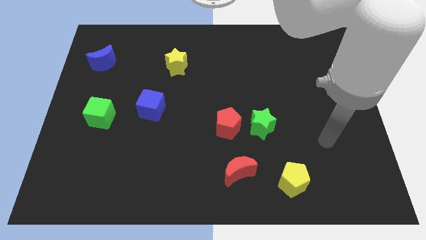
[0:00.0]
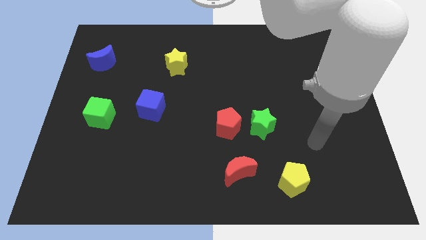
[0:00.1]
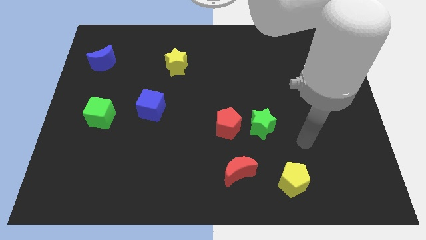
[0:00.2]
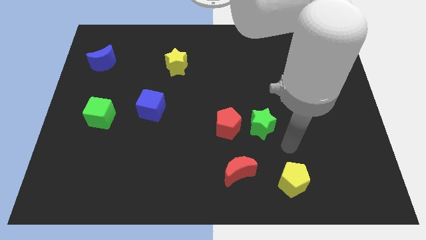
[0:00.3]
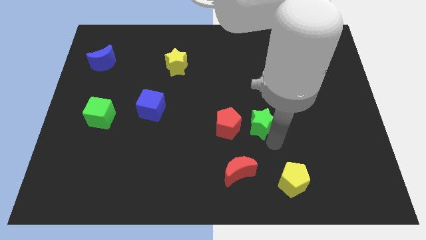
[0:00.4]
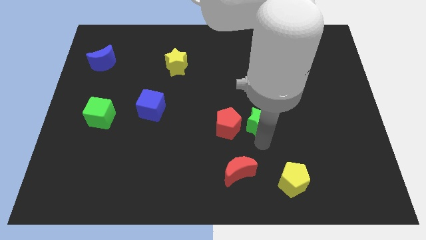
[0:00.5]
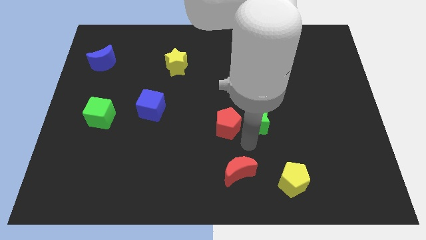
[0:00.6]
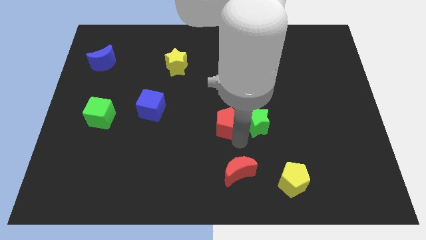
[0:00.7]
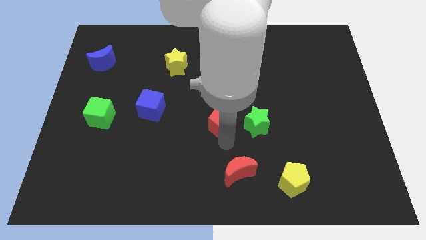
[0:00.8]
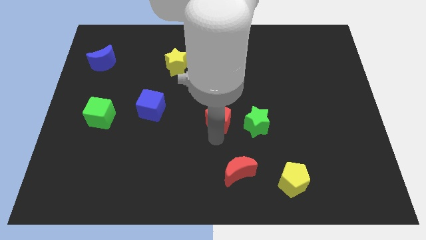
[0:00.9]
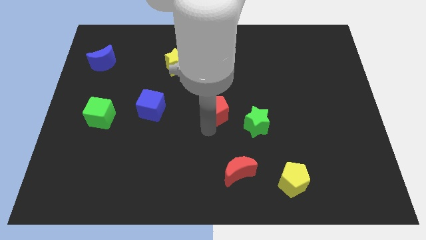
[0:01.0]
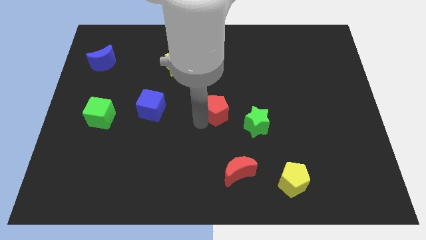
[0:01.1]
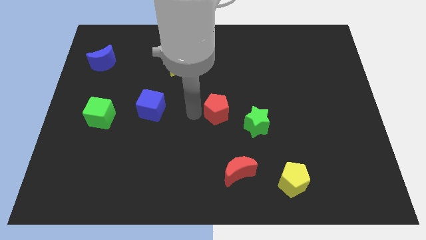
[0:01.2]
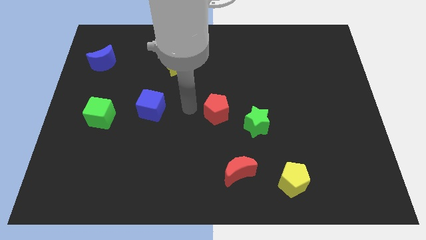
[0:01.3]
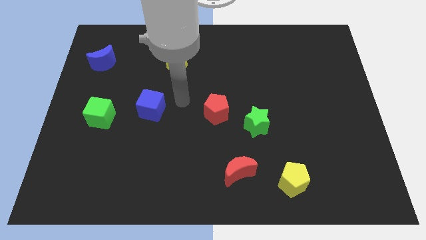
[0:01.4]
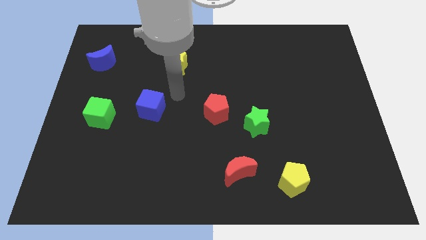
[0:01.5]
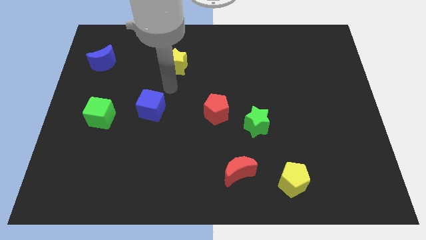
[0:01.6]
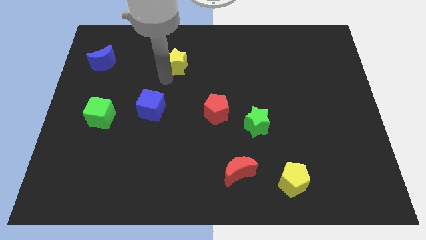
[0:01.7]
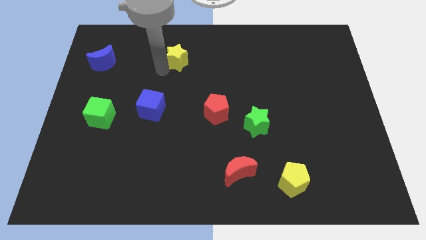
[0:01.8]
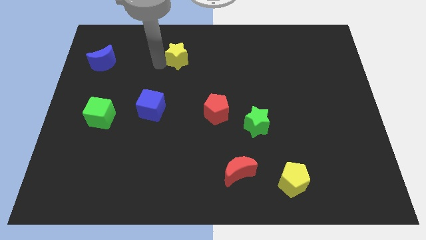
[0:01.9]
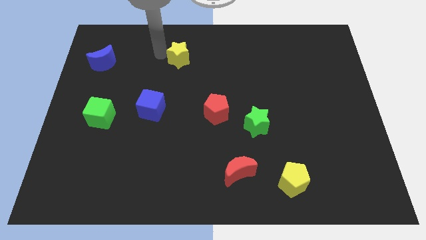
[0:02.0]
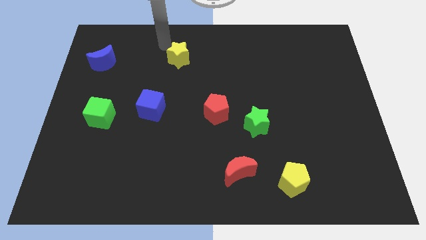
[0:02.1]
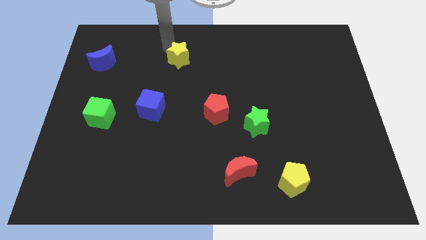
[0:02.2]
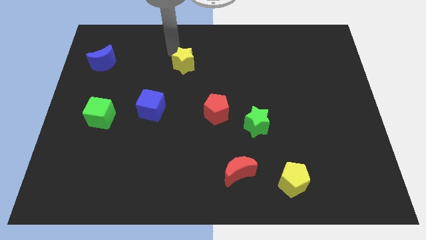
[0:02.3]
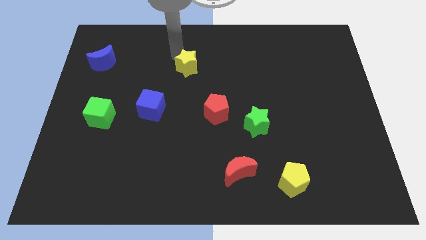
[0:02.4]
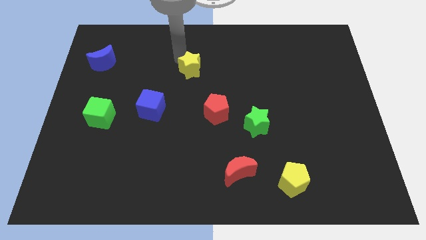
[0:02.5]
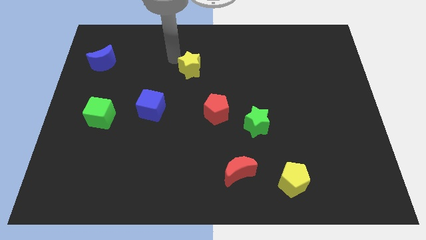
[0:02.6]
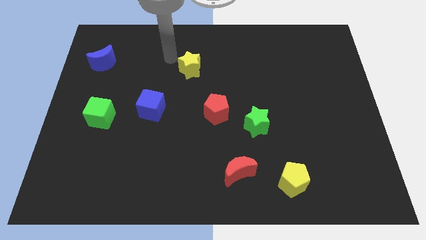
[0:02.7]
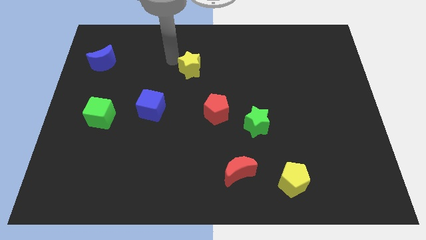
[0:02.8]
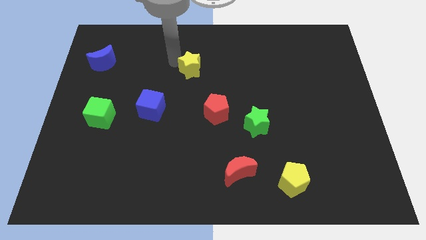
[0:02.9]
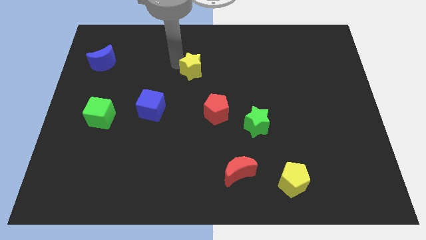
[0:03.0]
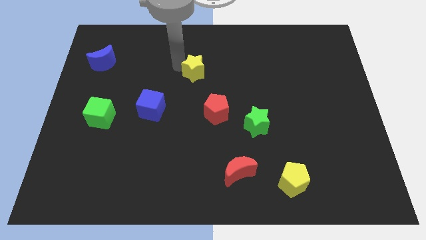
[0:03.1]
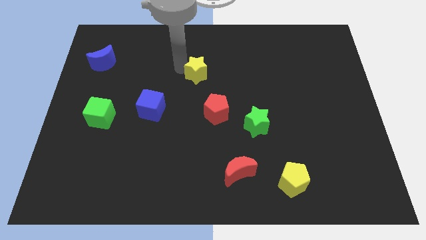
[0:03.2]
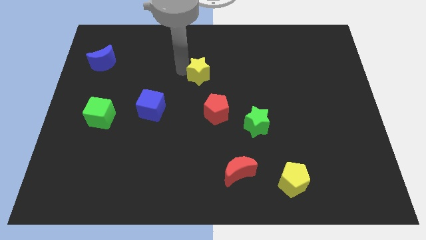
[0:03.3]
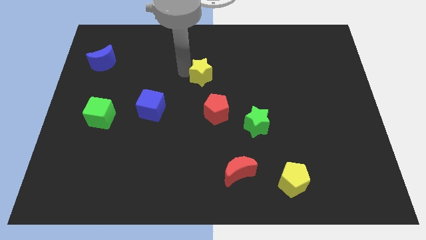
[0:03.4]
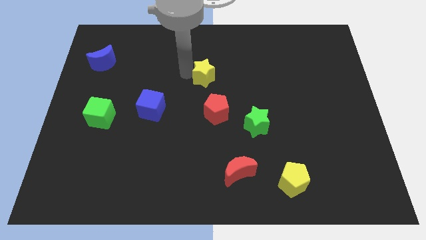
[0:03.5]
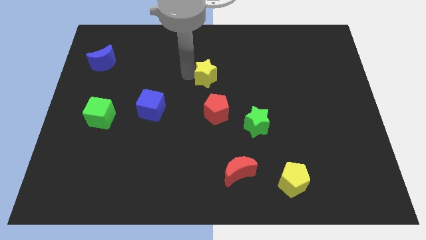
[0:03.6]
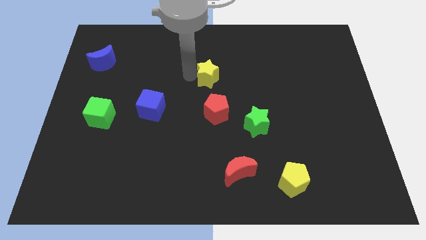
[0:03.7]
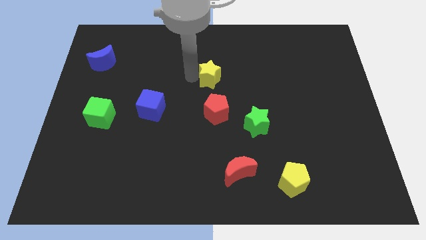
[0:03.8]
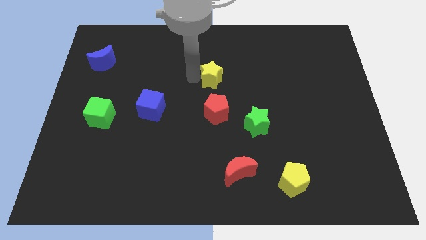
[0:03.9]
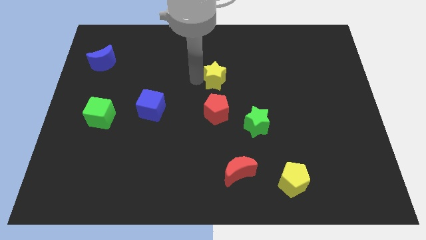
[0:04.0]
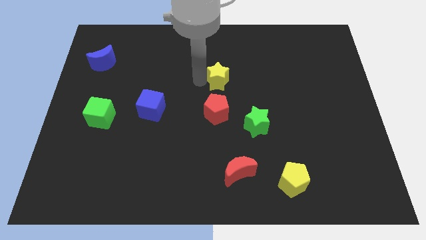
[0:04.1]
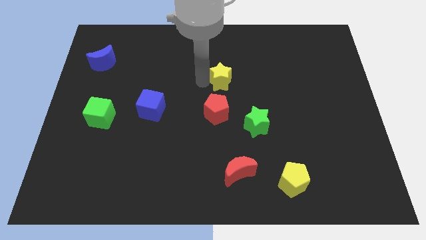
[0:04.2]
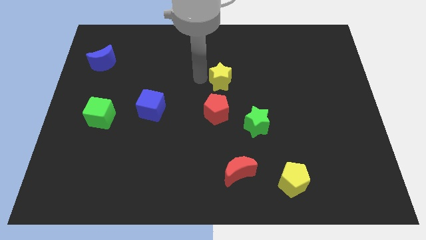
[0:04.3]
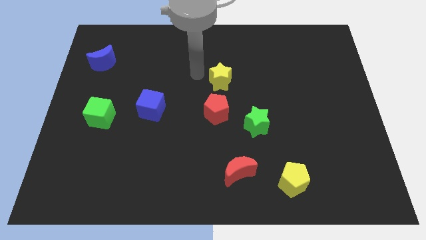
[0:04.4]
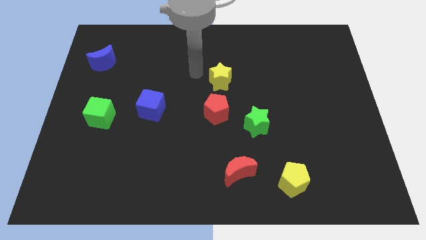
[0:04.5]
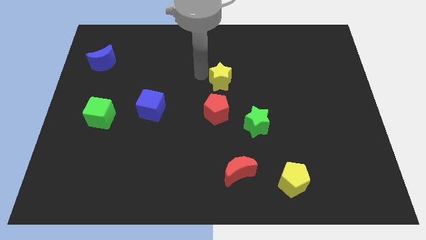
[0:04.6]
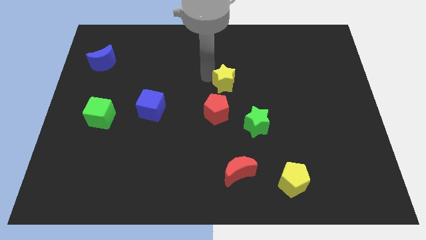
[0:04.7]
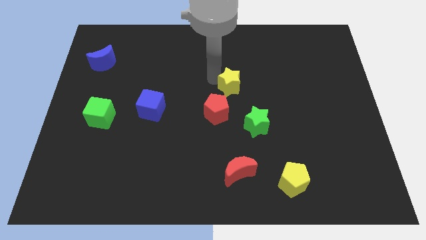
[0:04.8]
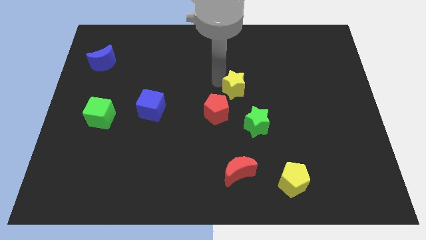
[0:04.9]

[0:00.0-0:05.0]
slide the yellow star to the top side of the green star

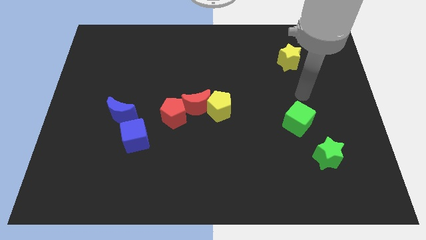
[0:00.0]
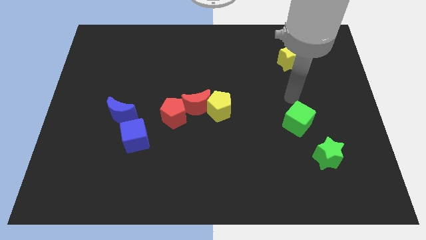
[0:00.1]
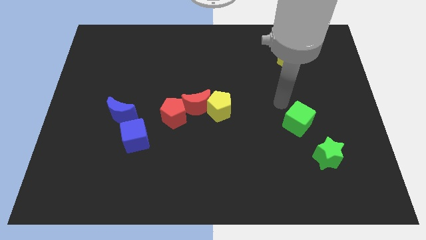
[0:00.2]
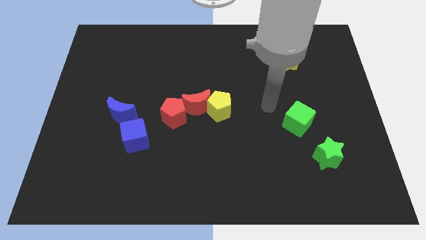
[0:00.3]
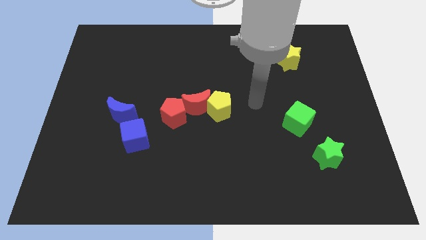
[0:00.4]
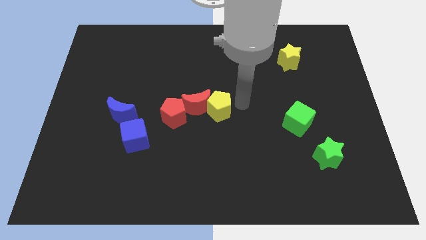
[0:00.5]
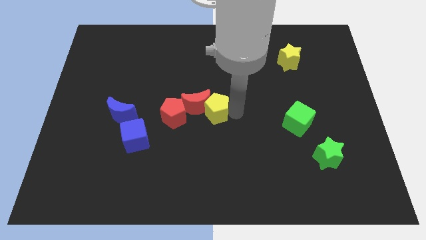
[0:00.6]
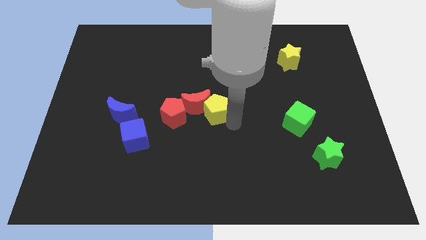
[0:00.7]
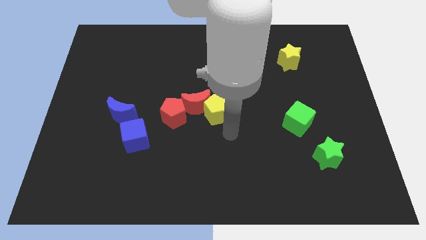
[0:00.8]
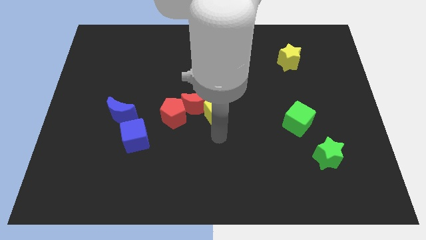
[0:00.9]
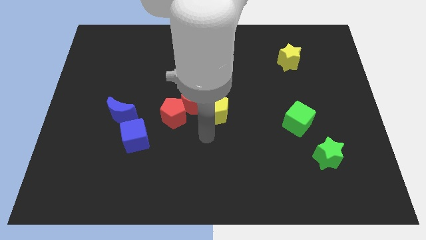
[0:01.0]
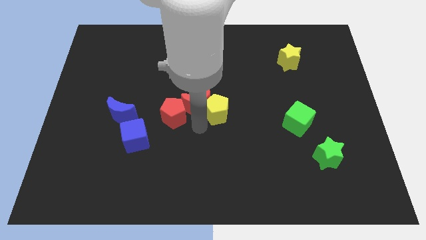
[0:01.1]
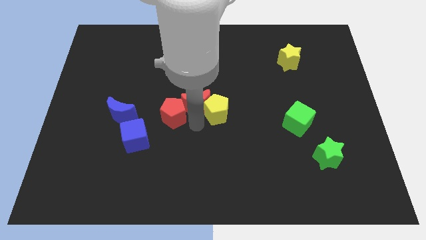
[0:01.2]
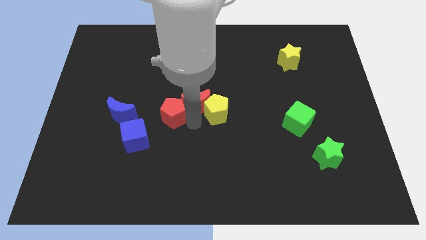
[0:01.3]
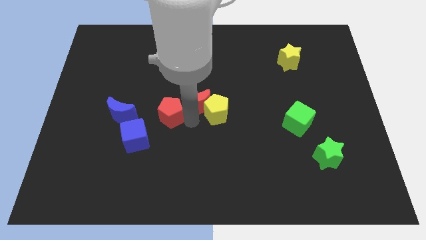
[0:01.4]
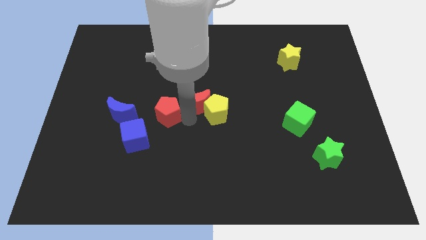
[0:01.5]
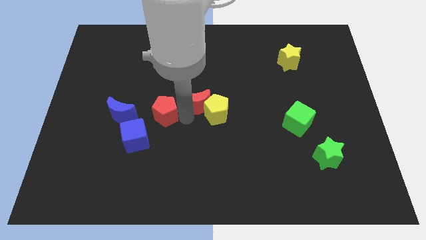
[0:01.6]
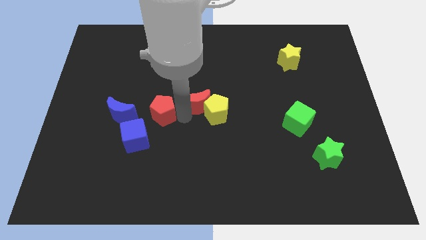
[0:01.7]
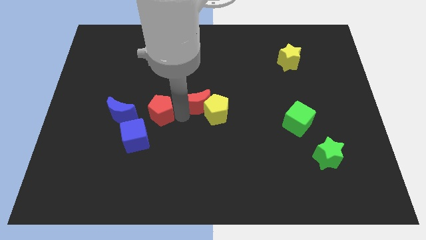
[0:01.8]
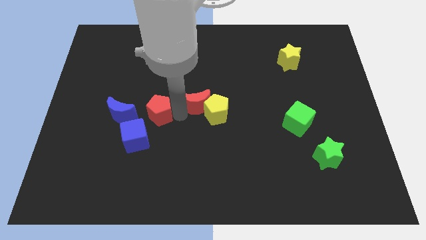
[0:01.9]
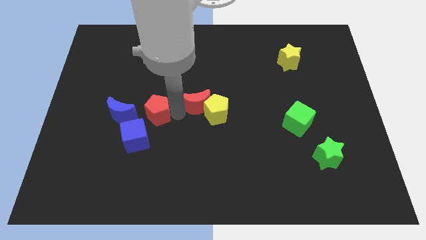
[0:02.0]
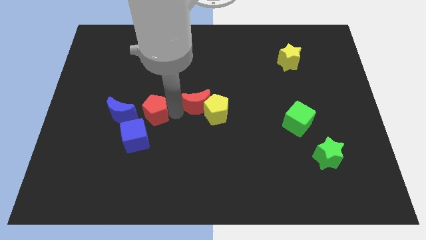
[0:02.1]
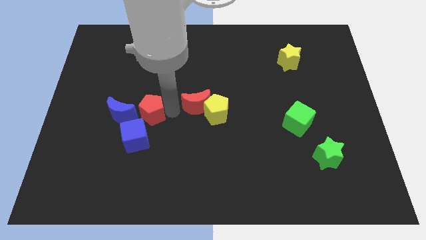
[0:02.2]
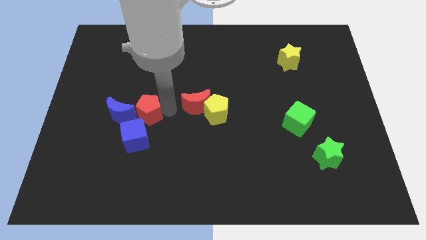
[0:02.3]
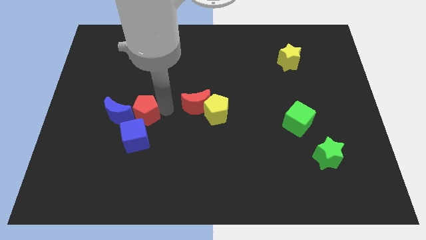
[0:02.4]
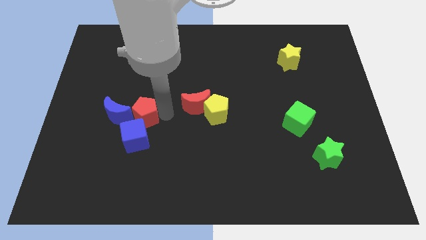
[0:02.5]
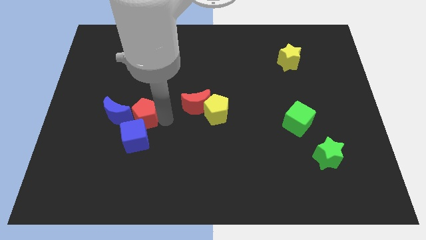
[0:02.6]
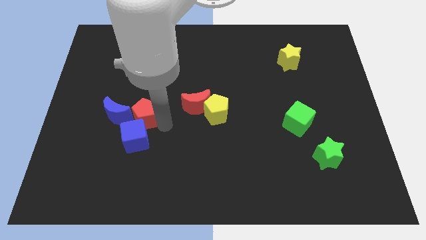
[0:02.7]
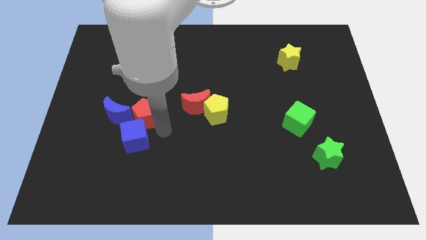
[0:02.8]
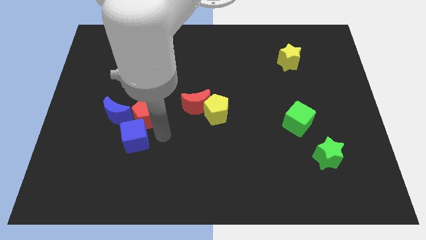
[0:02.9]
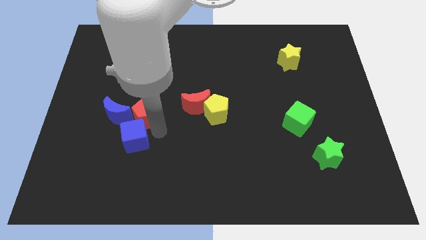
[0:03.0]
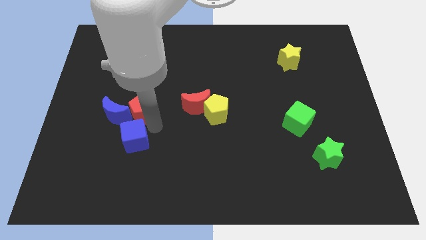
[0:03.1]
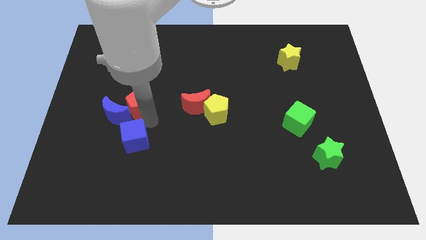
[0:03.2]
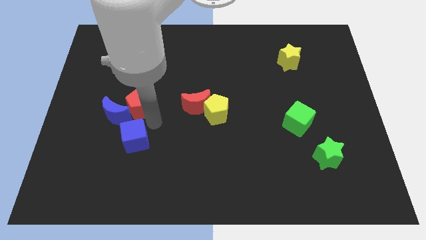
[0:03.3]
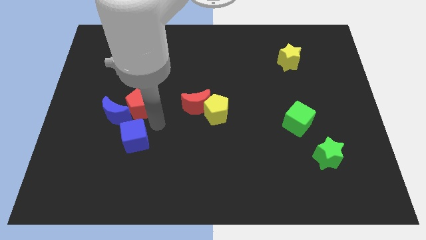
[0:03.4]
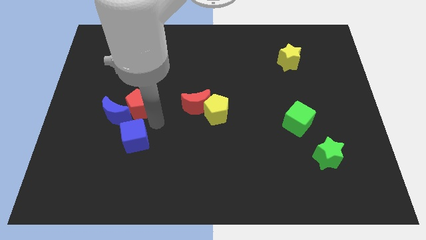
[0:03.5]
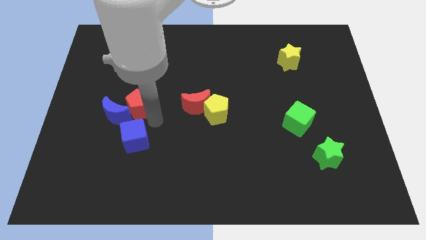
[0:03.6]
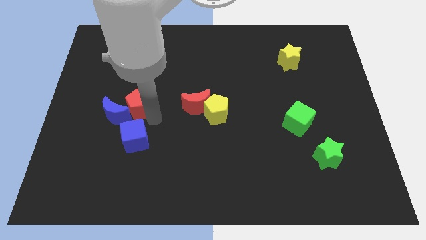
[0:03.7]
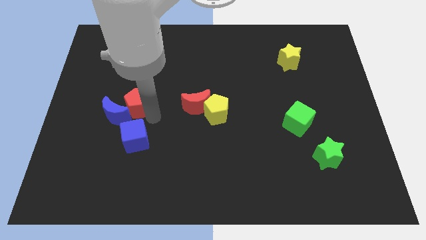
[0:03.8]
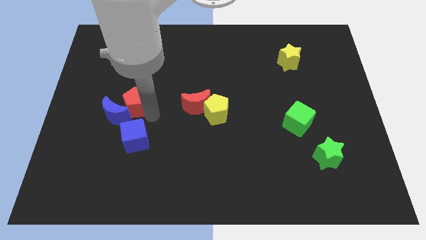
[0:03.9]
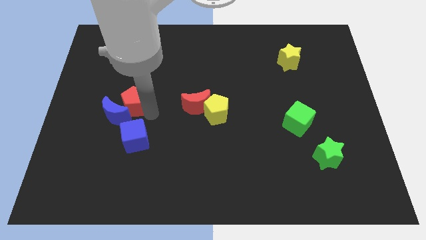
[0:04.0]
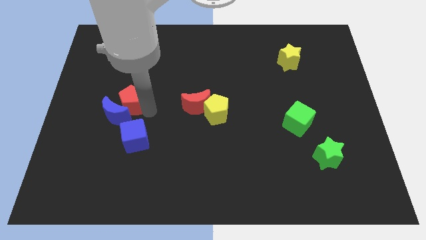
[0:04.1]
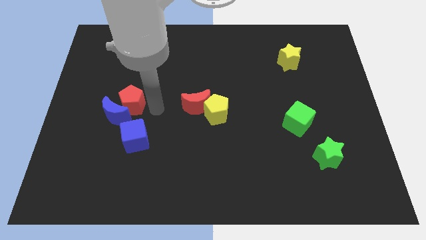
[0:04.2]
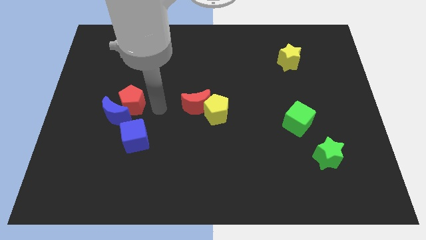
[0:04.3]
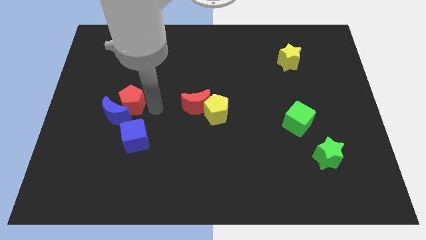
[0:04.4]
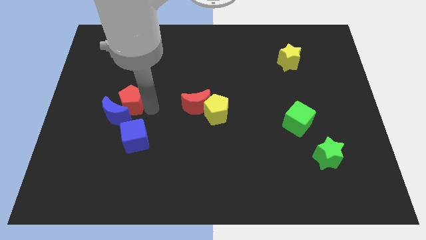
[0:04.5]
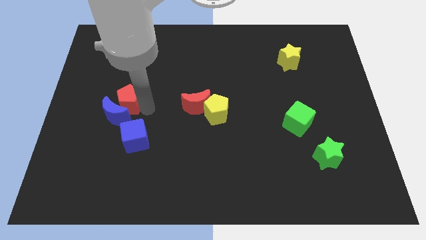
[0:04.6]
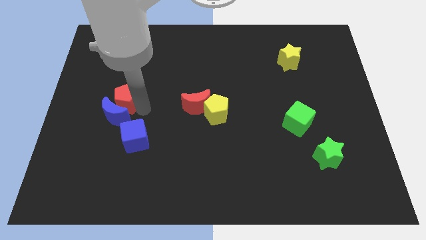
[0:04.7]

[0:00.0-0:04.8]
move the red pentagon to the top left side of the blue moon
